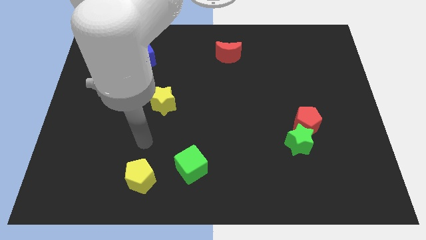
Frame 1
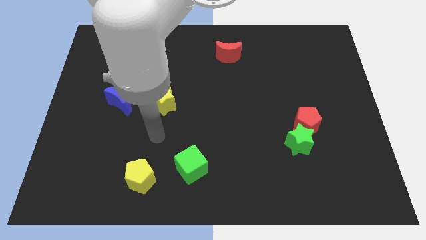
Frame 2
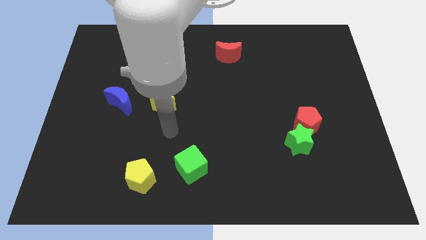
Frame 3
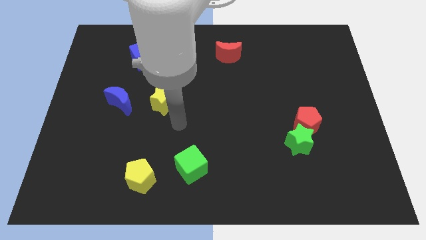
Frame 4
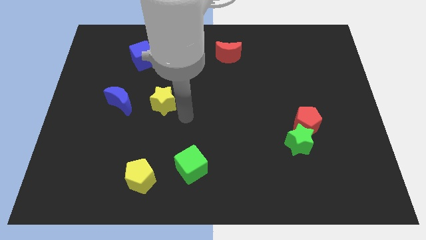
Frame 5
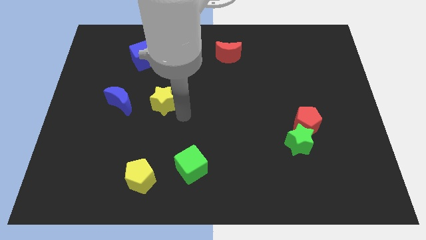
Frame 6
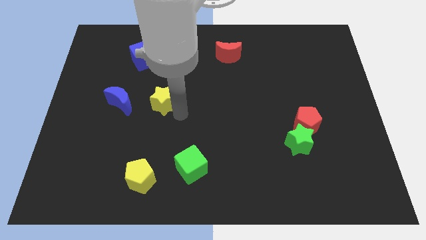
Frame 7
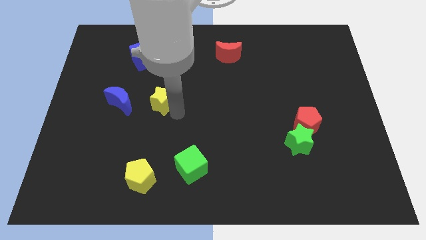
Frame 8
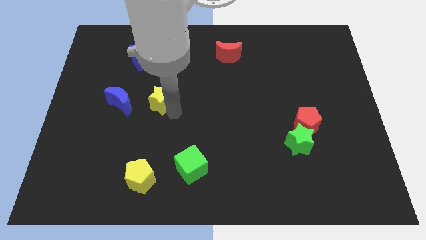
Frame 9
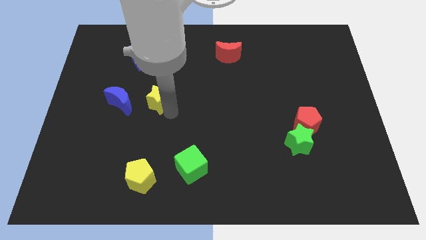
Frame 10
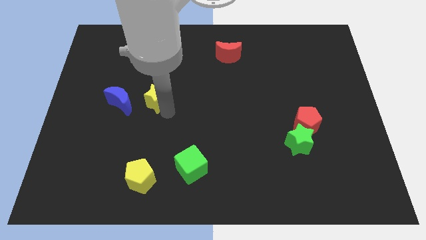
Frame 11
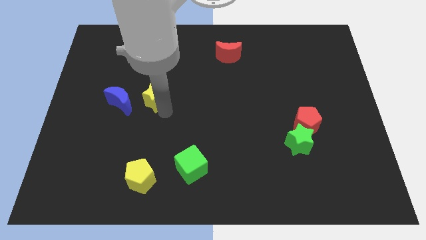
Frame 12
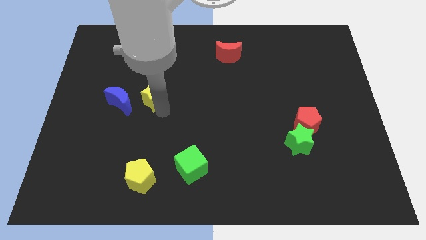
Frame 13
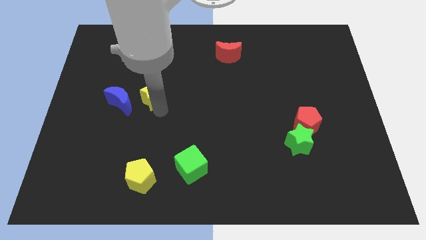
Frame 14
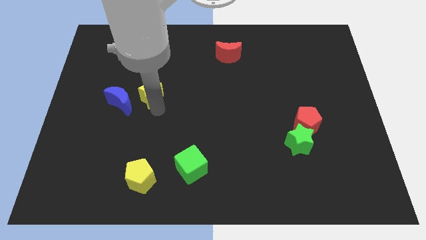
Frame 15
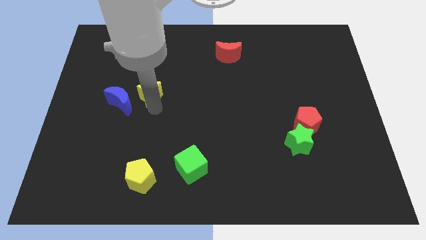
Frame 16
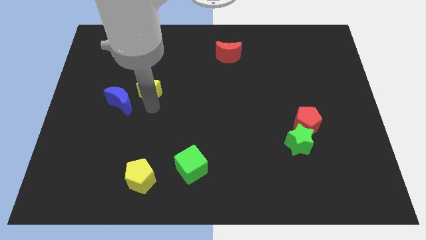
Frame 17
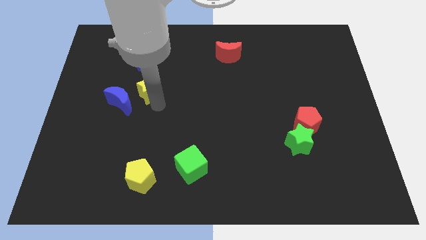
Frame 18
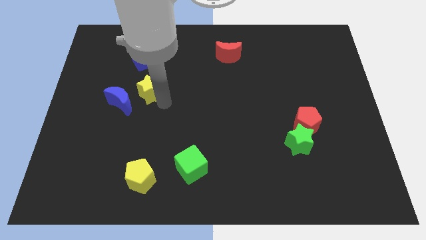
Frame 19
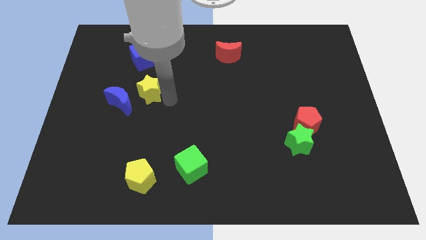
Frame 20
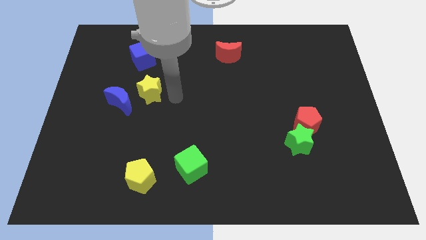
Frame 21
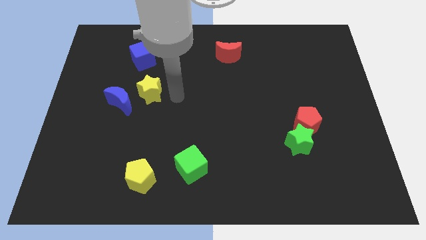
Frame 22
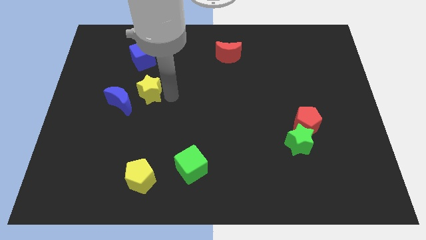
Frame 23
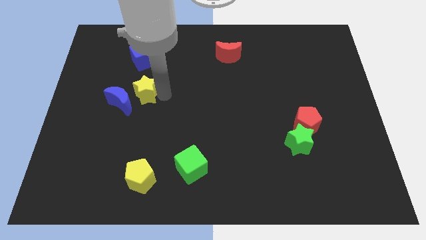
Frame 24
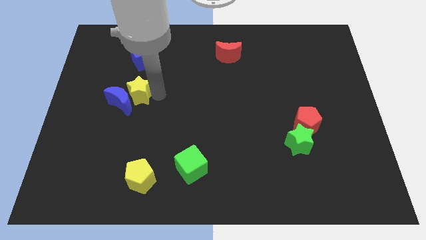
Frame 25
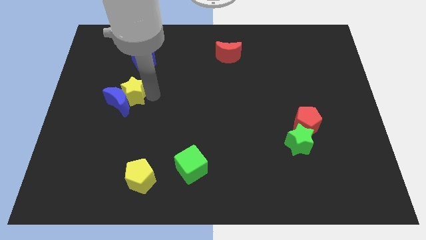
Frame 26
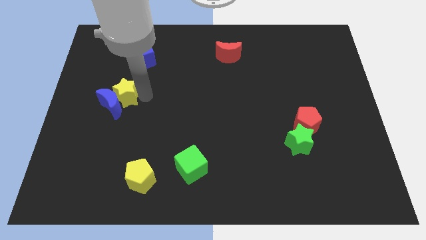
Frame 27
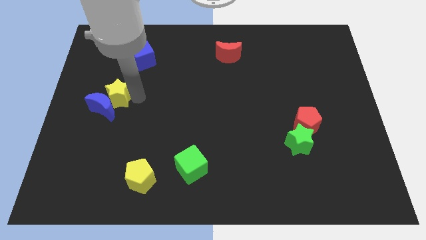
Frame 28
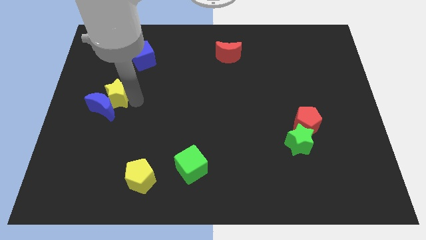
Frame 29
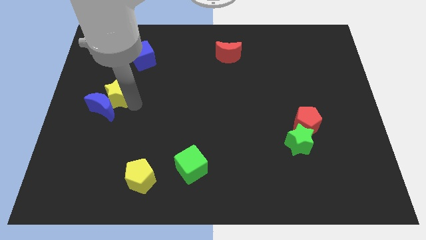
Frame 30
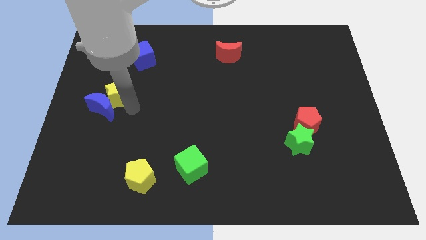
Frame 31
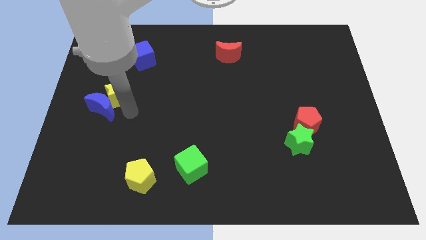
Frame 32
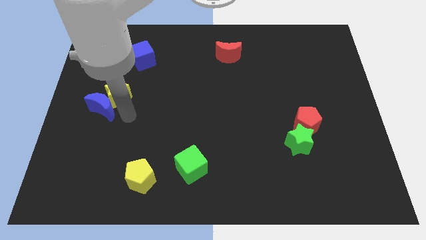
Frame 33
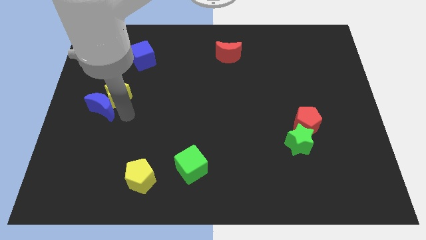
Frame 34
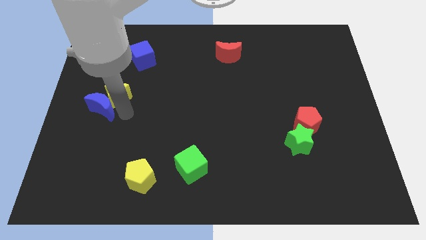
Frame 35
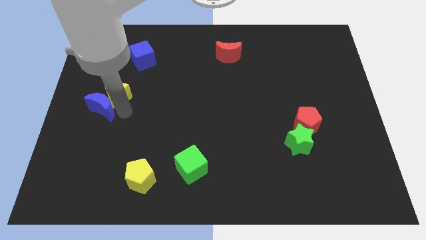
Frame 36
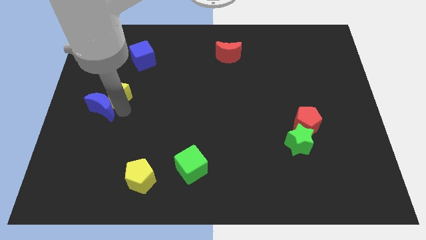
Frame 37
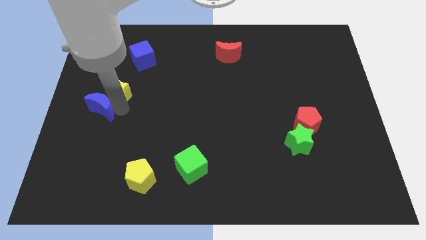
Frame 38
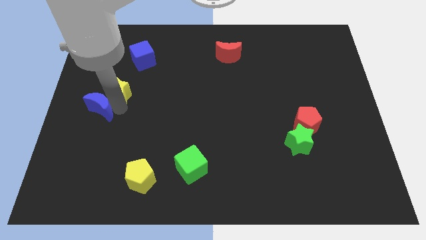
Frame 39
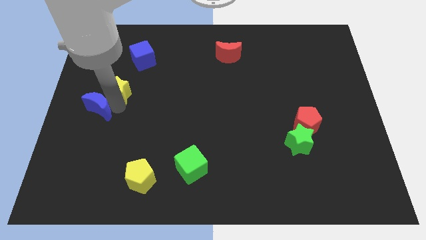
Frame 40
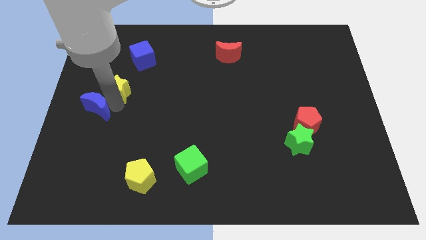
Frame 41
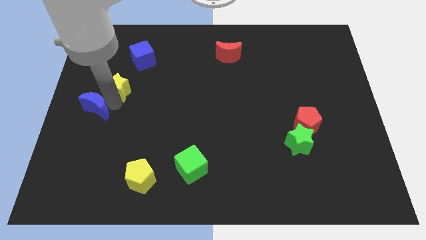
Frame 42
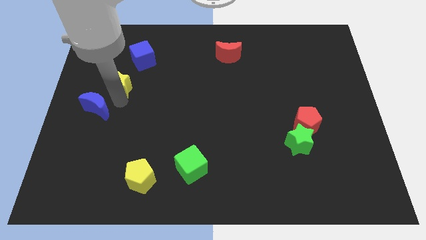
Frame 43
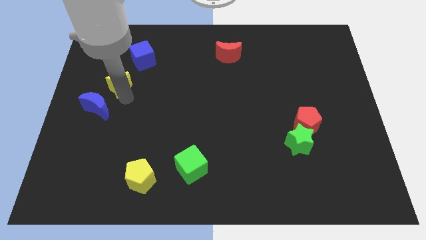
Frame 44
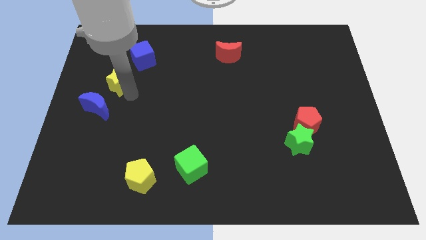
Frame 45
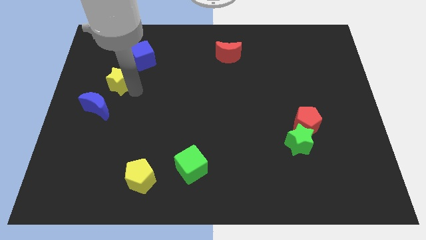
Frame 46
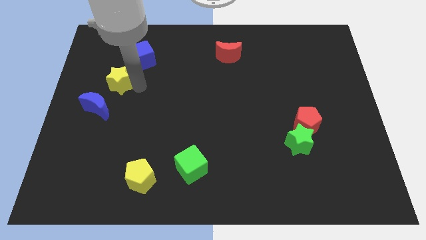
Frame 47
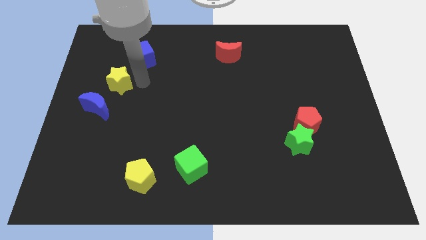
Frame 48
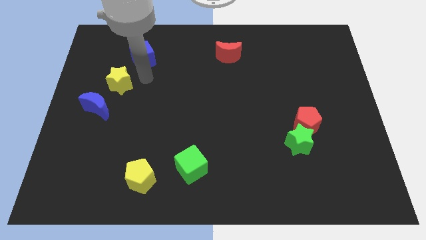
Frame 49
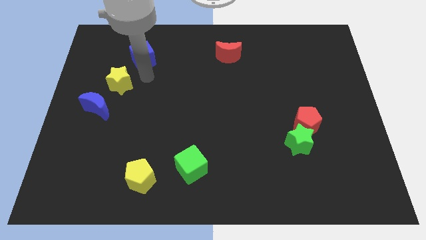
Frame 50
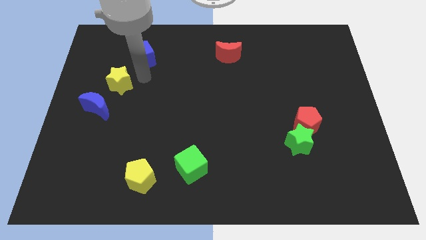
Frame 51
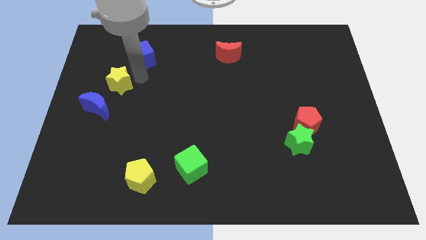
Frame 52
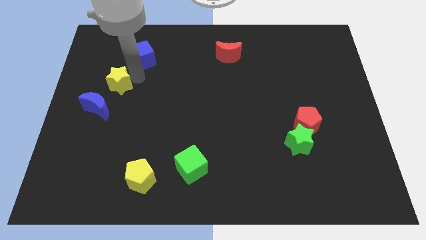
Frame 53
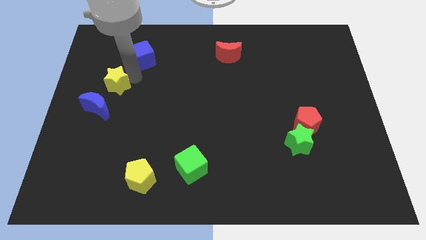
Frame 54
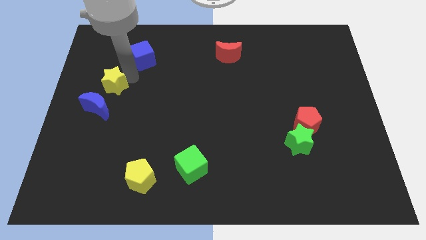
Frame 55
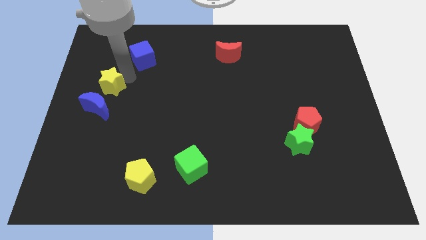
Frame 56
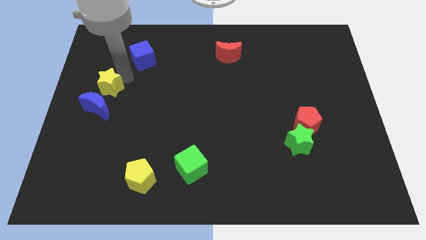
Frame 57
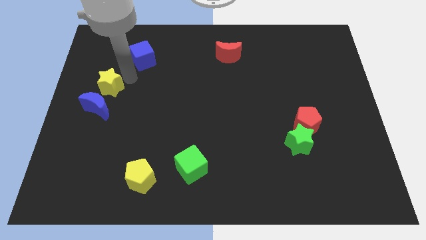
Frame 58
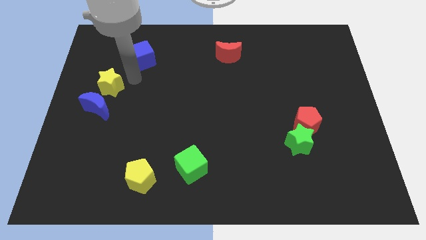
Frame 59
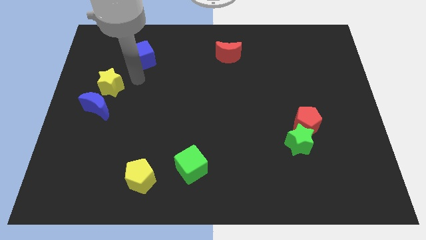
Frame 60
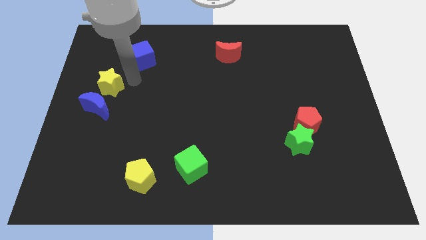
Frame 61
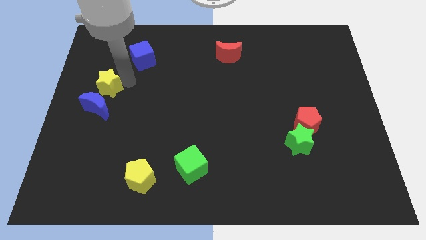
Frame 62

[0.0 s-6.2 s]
move the yellow star to the left side
